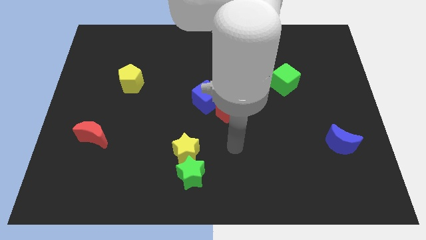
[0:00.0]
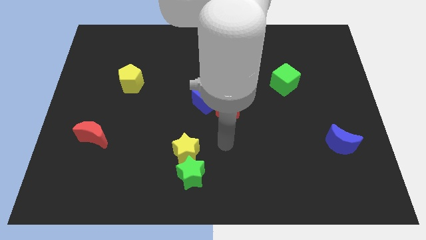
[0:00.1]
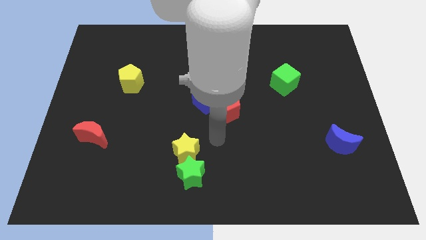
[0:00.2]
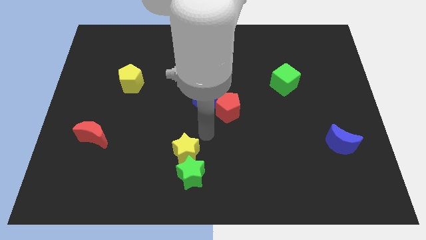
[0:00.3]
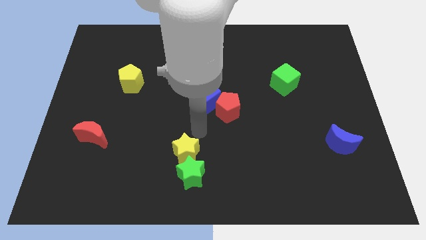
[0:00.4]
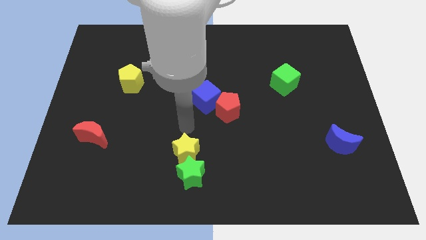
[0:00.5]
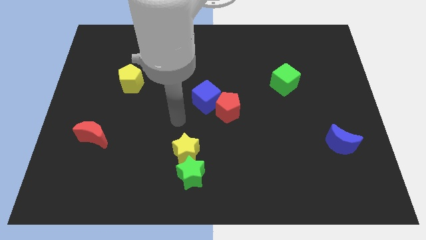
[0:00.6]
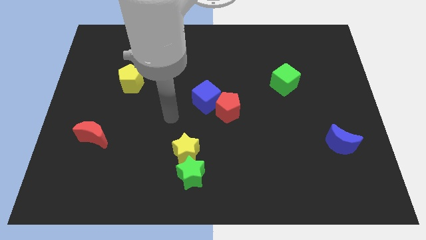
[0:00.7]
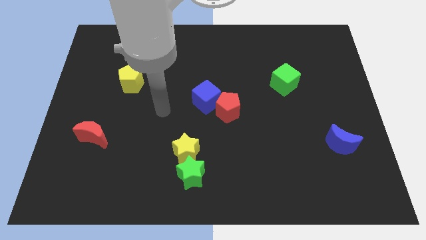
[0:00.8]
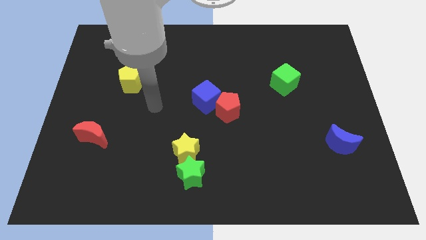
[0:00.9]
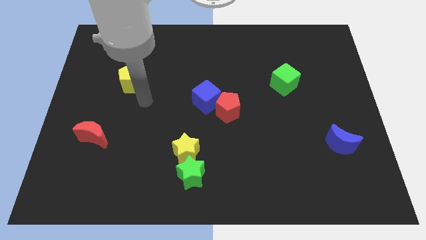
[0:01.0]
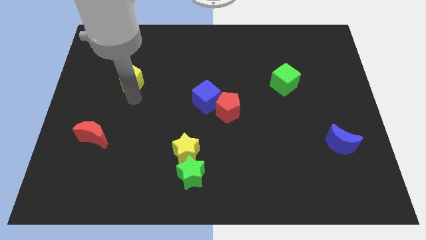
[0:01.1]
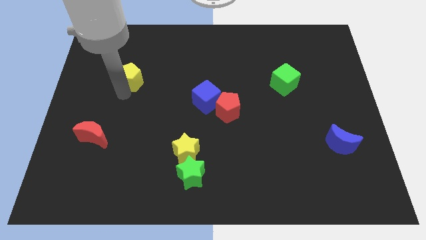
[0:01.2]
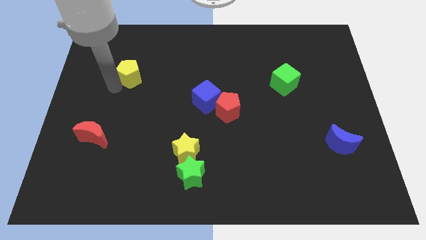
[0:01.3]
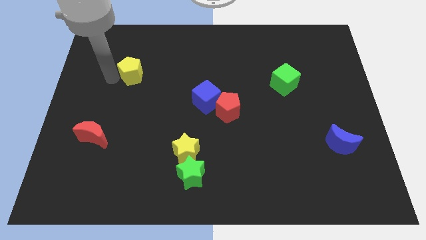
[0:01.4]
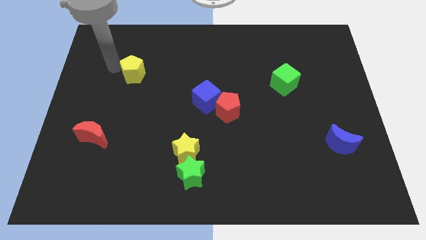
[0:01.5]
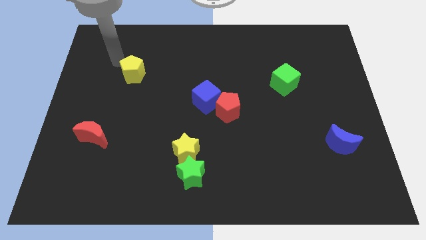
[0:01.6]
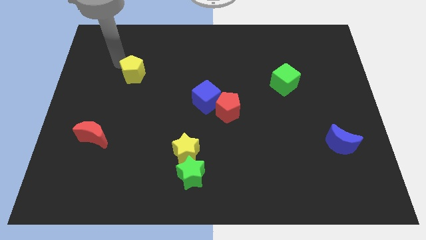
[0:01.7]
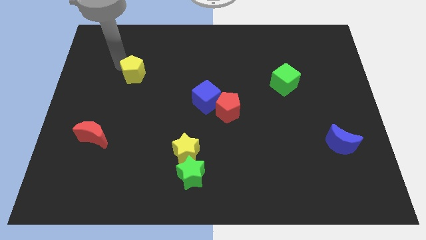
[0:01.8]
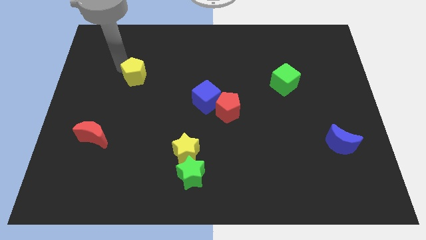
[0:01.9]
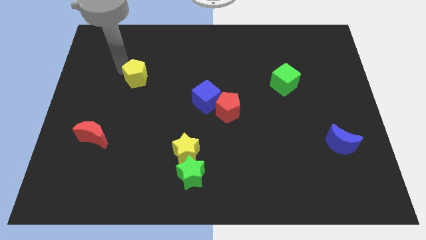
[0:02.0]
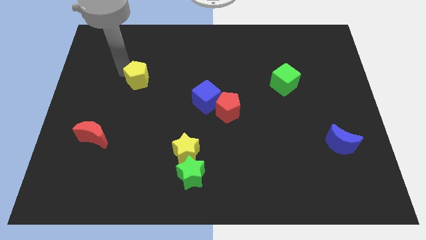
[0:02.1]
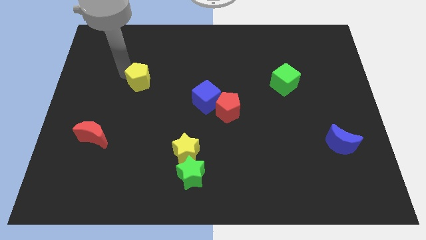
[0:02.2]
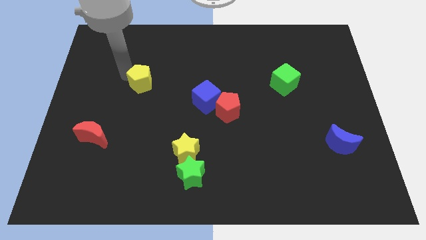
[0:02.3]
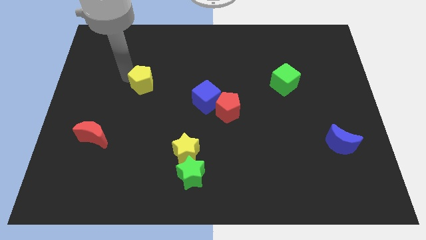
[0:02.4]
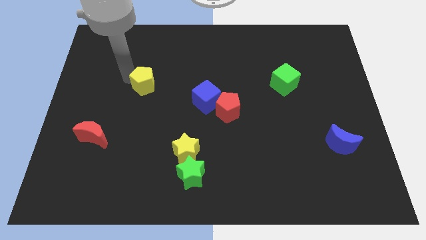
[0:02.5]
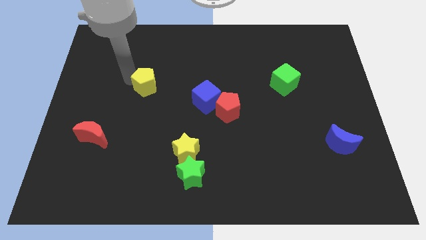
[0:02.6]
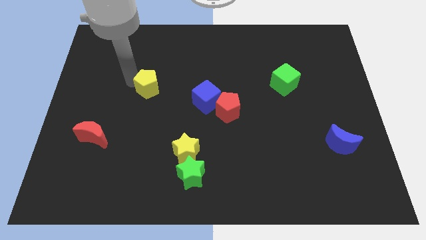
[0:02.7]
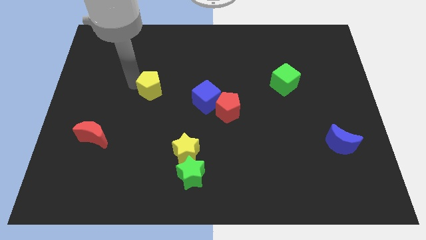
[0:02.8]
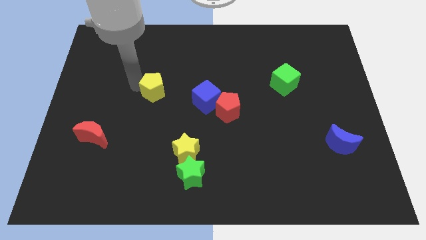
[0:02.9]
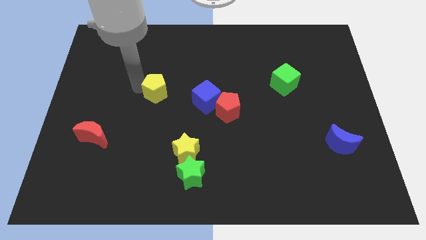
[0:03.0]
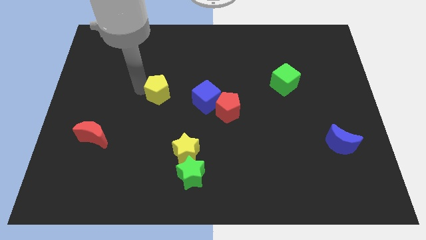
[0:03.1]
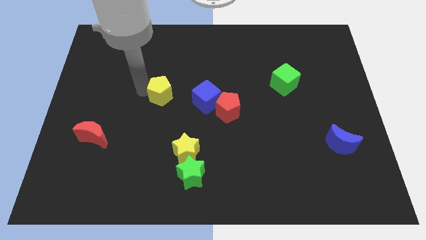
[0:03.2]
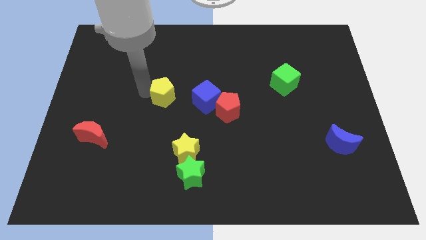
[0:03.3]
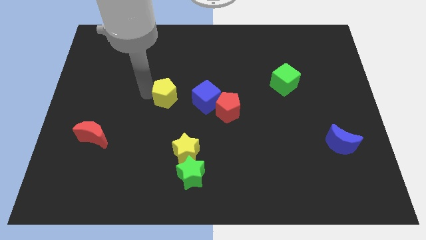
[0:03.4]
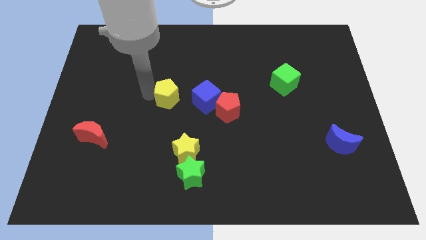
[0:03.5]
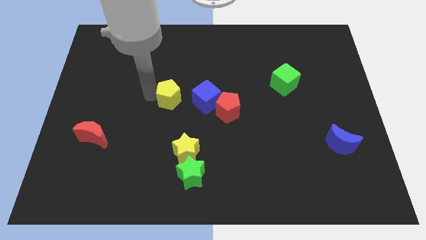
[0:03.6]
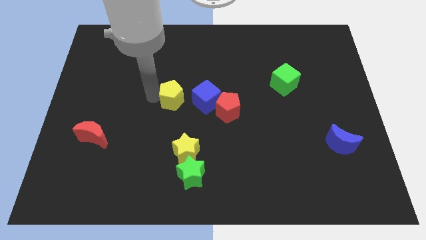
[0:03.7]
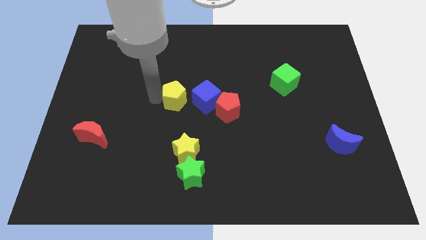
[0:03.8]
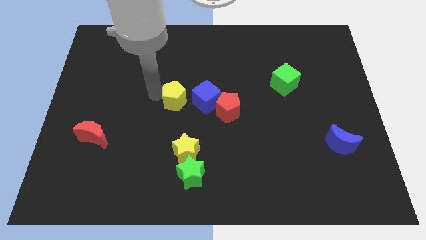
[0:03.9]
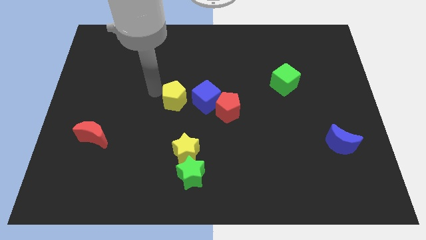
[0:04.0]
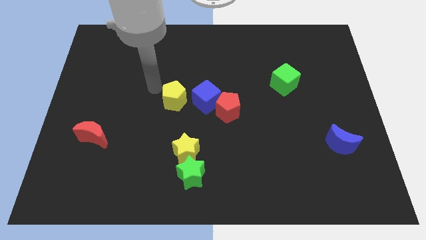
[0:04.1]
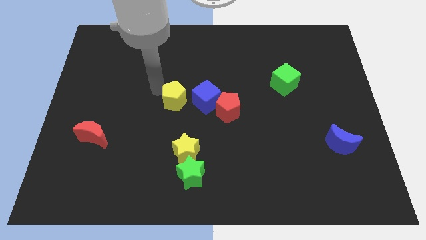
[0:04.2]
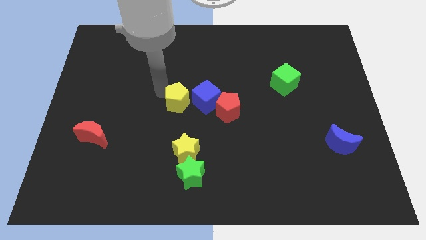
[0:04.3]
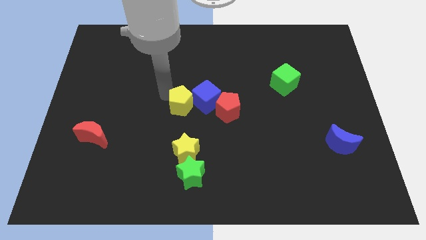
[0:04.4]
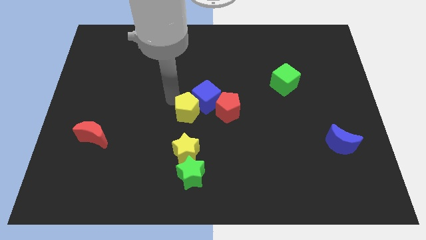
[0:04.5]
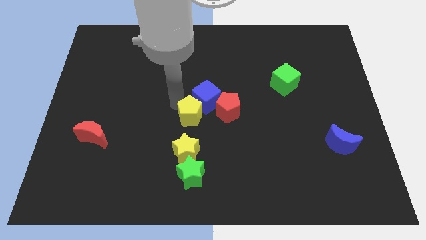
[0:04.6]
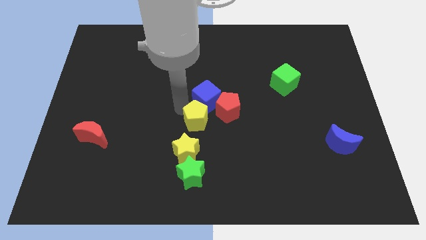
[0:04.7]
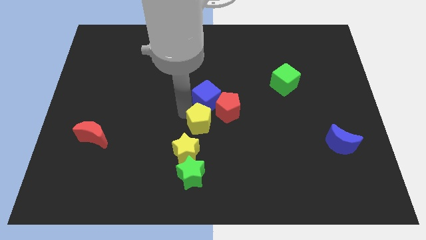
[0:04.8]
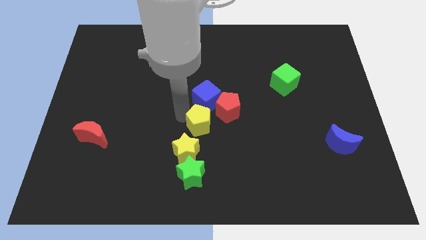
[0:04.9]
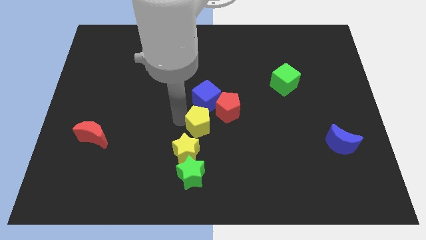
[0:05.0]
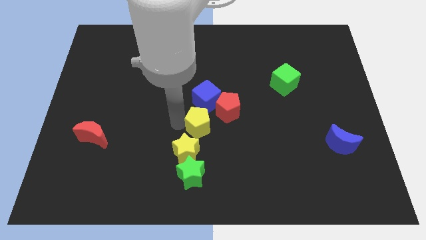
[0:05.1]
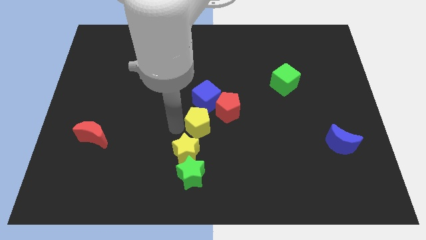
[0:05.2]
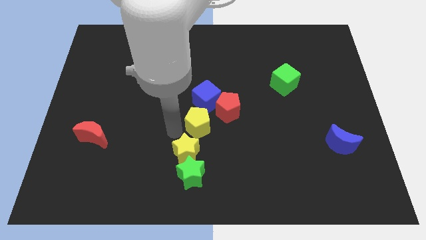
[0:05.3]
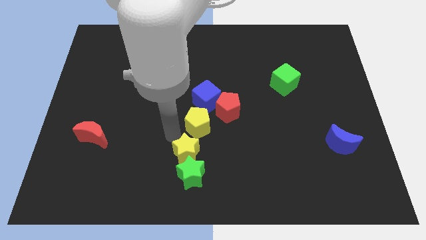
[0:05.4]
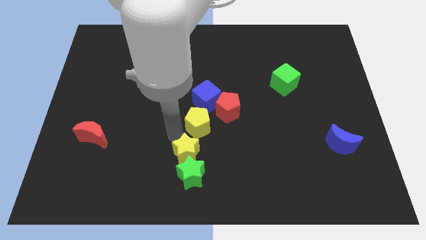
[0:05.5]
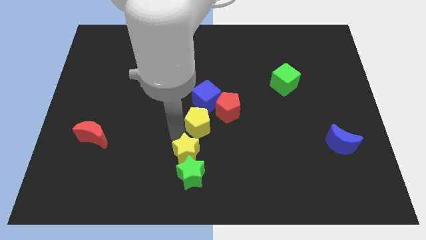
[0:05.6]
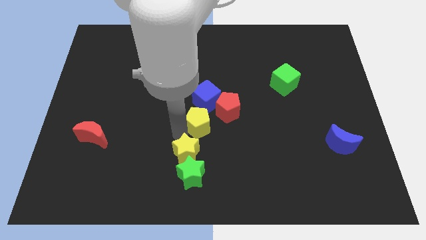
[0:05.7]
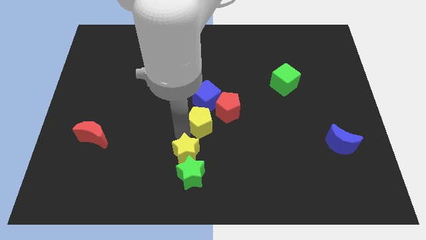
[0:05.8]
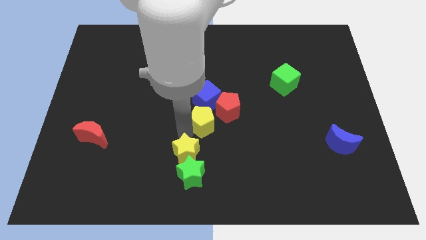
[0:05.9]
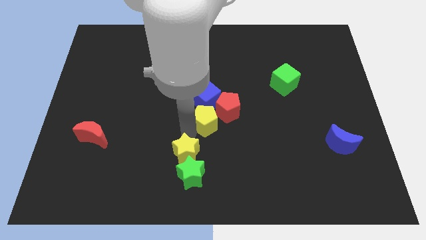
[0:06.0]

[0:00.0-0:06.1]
put the yellow pentagon towards the red pentagon

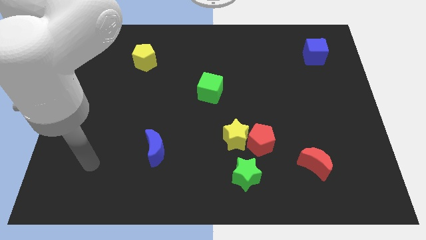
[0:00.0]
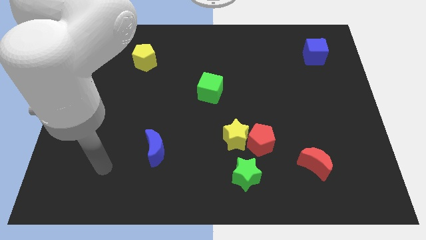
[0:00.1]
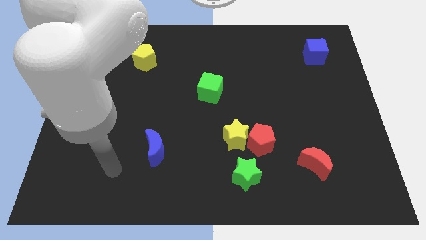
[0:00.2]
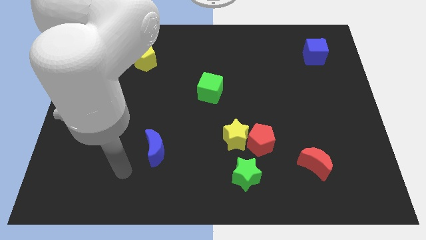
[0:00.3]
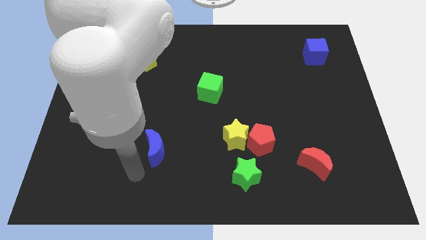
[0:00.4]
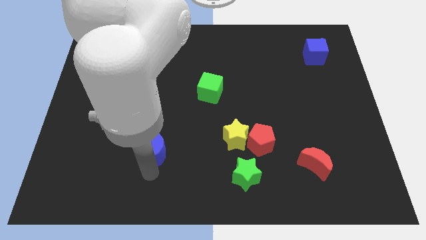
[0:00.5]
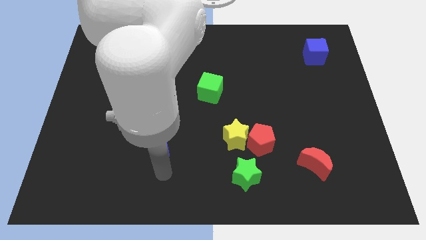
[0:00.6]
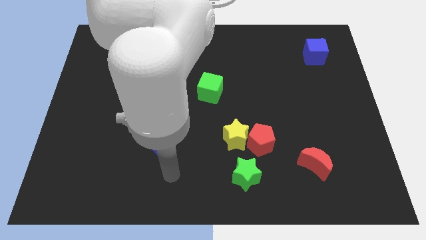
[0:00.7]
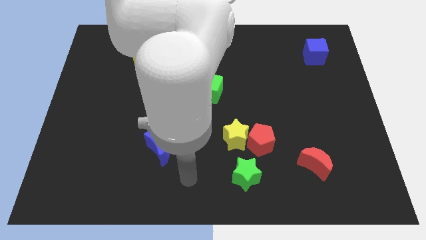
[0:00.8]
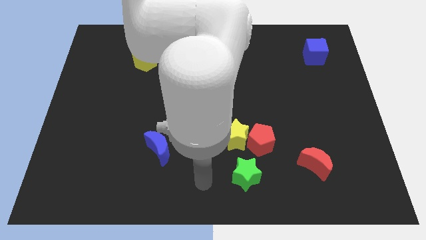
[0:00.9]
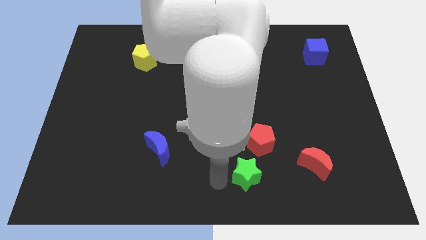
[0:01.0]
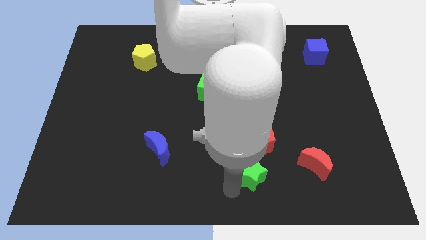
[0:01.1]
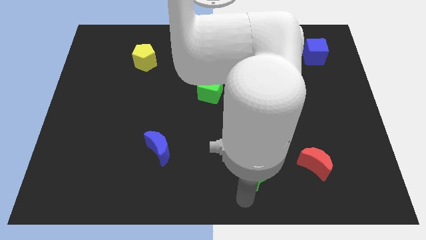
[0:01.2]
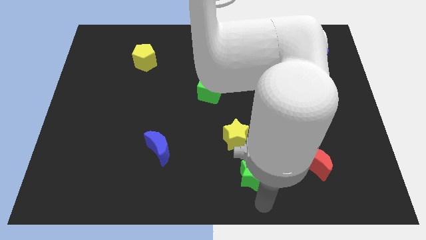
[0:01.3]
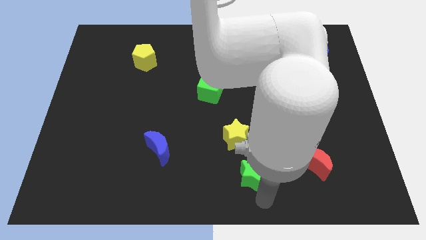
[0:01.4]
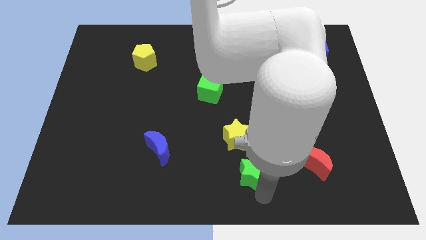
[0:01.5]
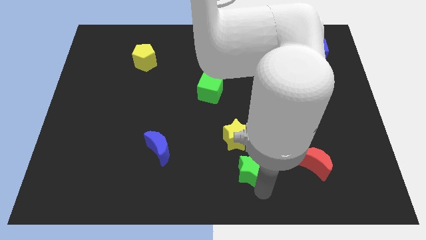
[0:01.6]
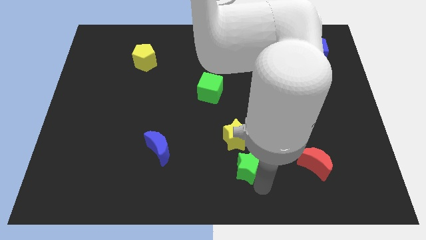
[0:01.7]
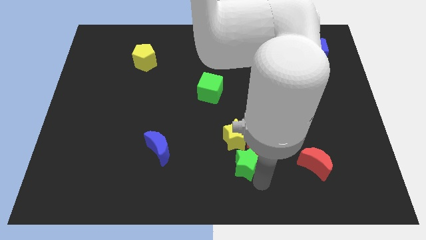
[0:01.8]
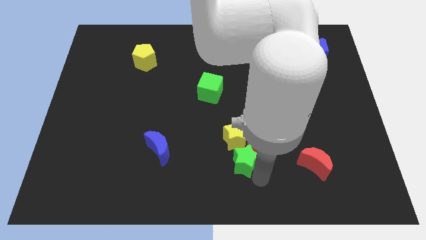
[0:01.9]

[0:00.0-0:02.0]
push the green star next to the yellow star
